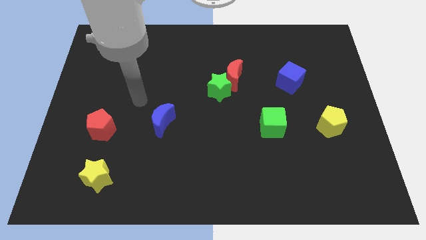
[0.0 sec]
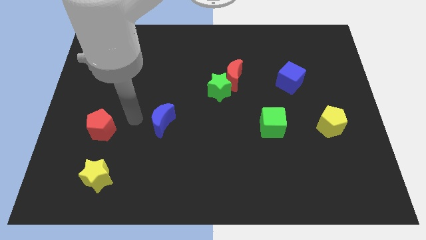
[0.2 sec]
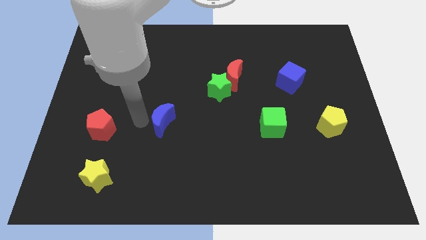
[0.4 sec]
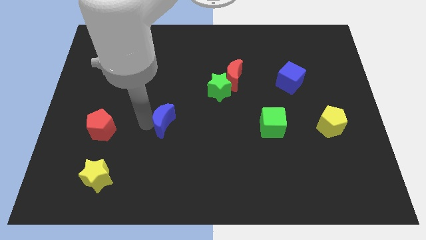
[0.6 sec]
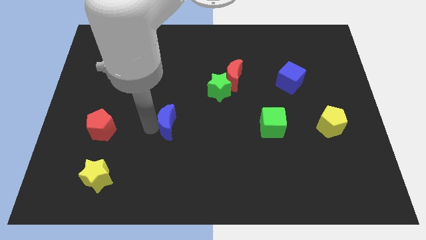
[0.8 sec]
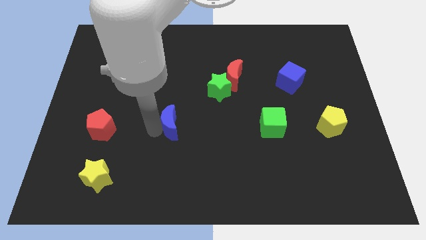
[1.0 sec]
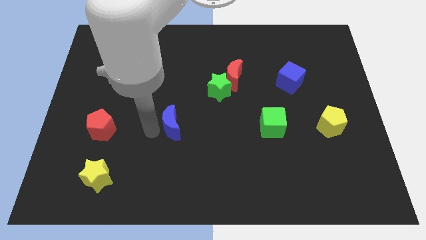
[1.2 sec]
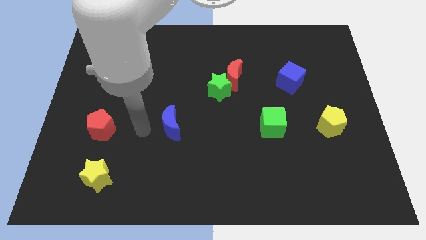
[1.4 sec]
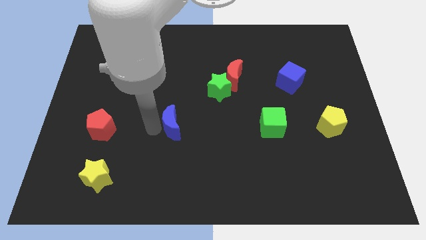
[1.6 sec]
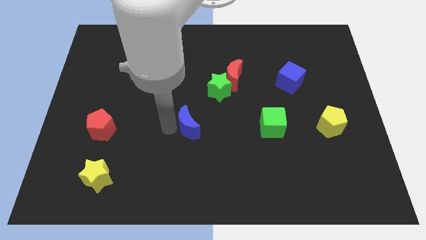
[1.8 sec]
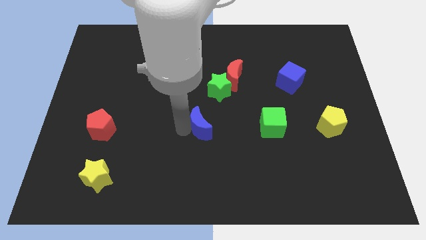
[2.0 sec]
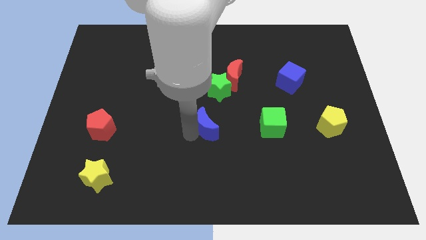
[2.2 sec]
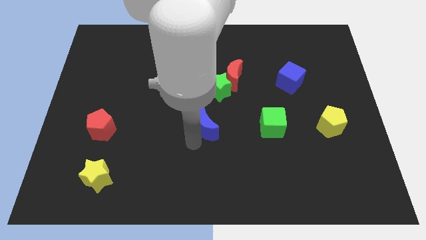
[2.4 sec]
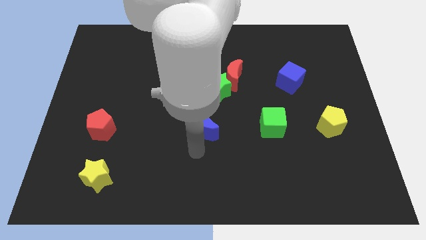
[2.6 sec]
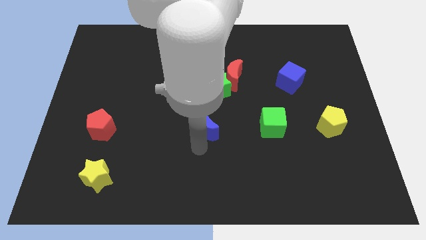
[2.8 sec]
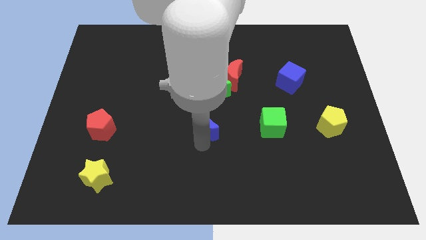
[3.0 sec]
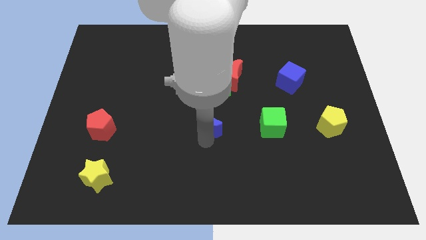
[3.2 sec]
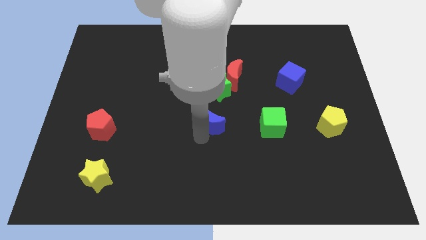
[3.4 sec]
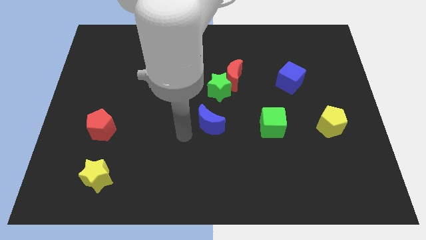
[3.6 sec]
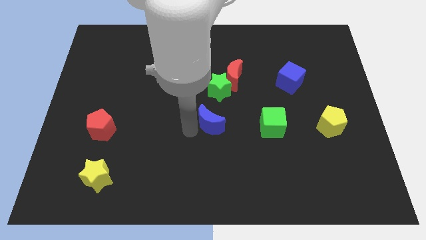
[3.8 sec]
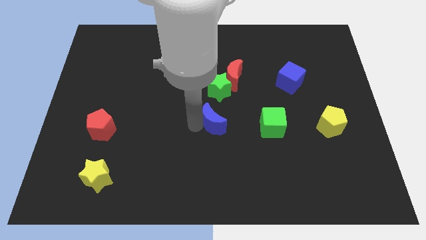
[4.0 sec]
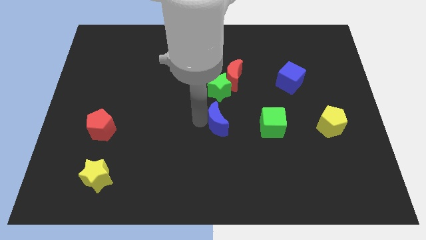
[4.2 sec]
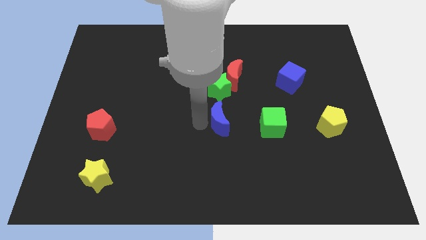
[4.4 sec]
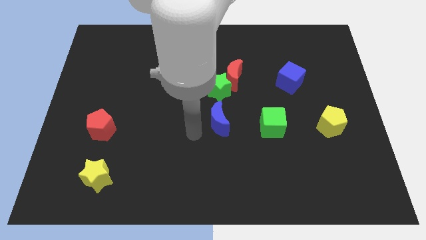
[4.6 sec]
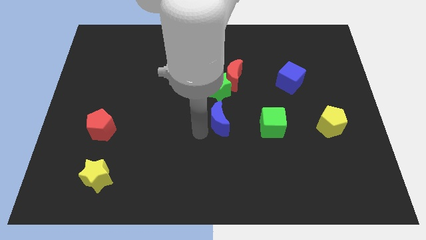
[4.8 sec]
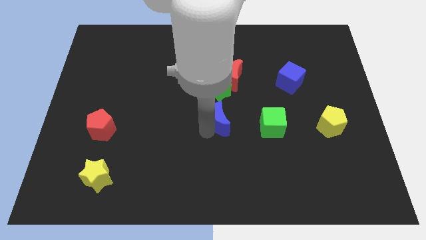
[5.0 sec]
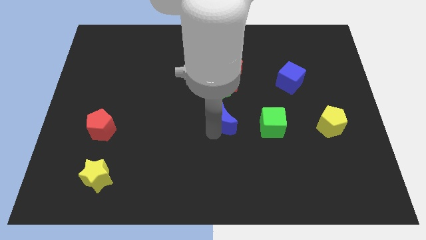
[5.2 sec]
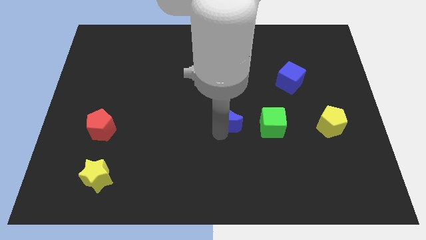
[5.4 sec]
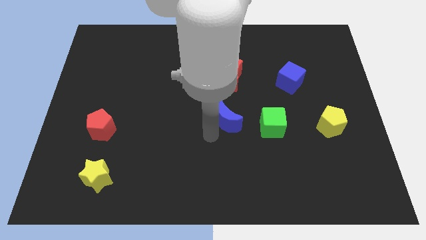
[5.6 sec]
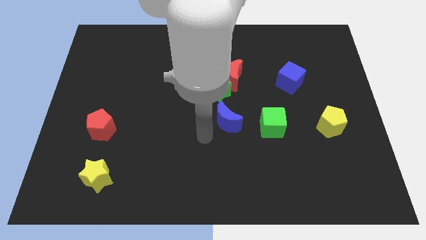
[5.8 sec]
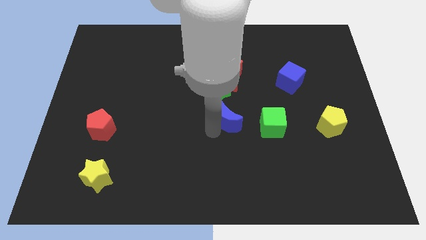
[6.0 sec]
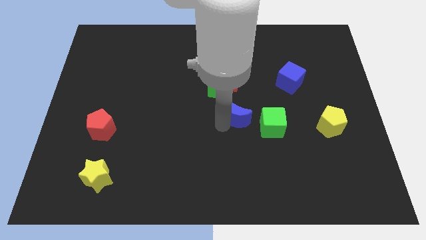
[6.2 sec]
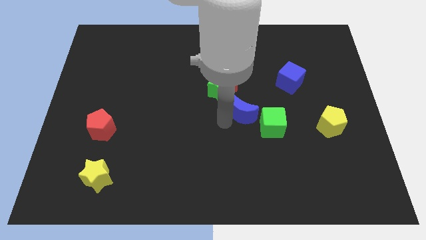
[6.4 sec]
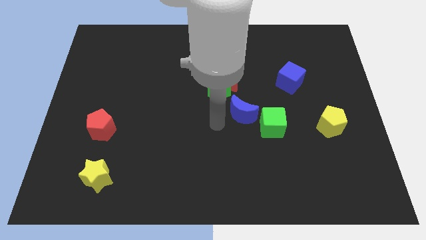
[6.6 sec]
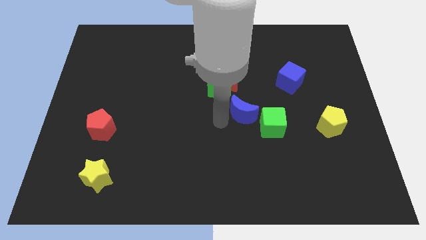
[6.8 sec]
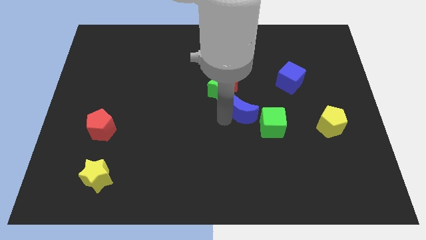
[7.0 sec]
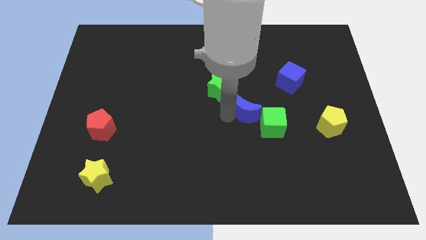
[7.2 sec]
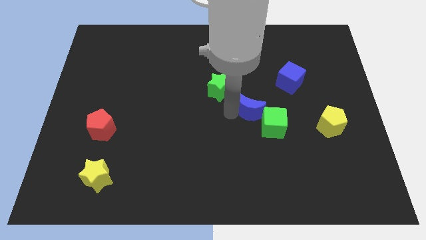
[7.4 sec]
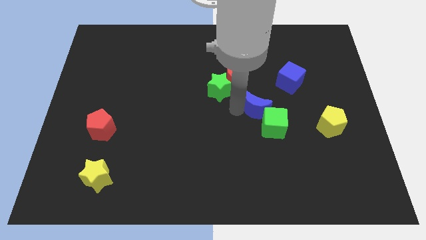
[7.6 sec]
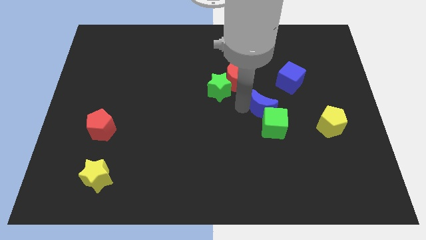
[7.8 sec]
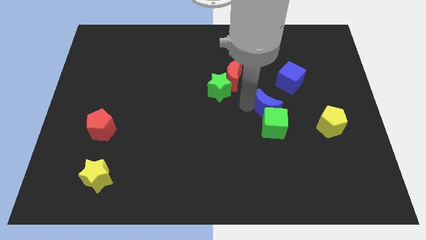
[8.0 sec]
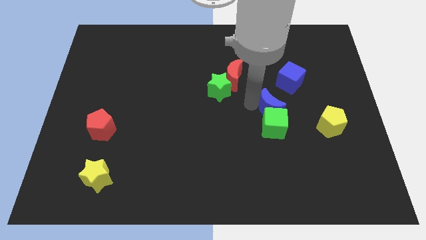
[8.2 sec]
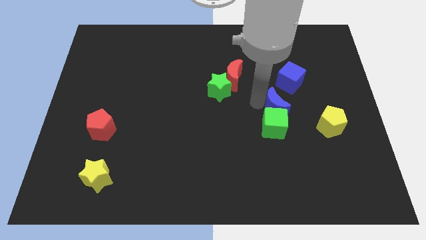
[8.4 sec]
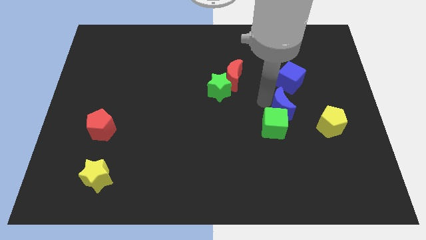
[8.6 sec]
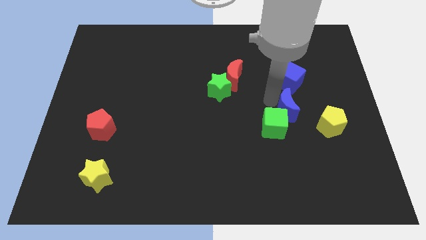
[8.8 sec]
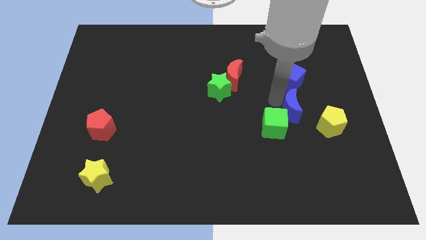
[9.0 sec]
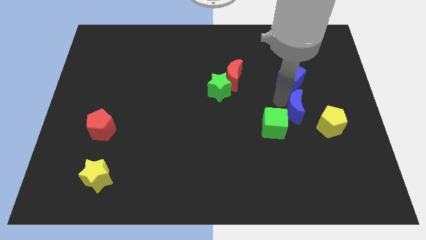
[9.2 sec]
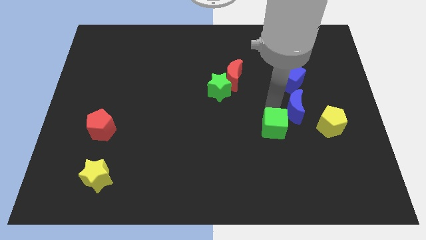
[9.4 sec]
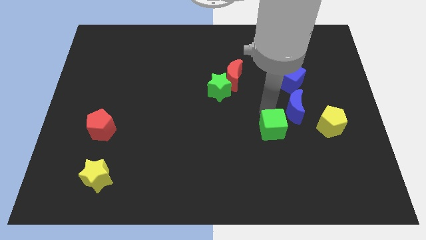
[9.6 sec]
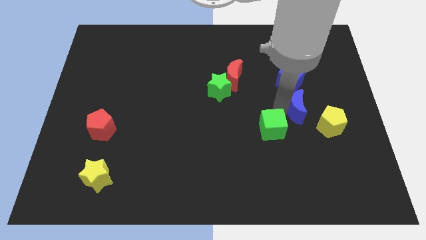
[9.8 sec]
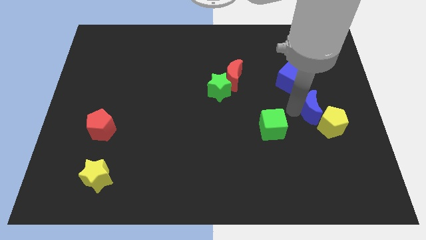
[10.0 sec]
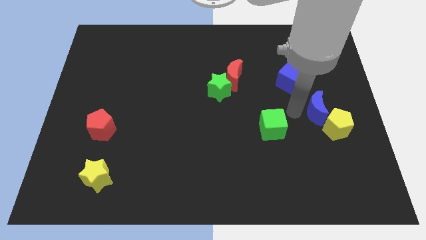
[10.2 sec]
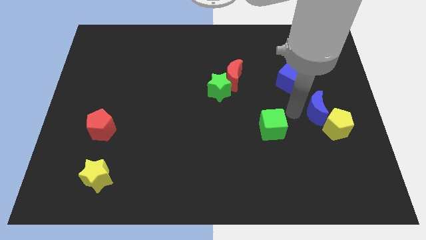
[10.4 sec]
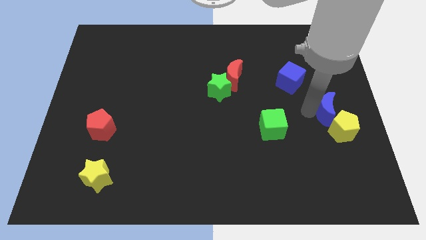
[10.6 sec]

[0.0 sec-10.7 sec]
put the blue moon to the center right
